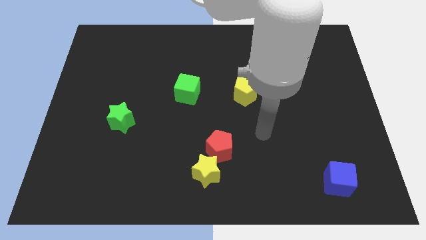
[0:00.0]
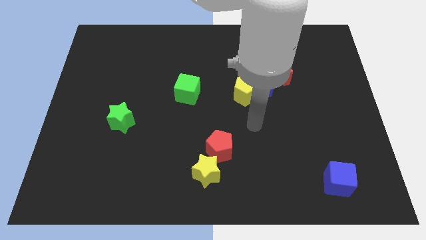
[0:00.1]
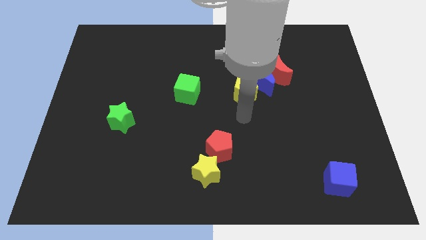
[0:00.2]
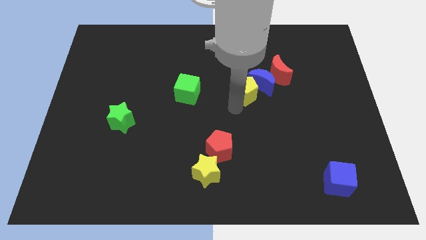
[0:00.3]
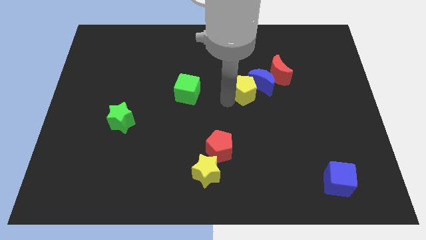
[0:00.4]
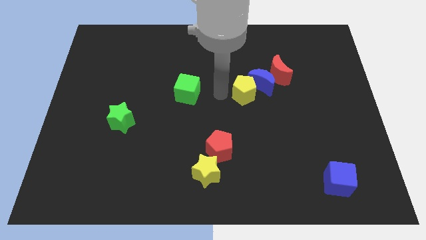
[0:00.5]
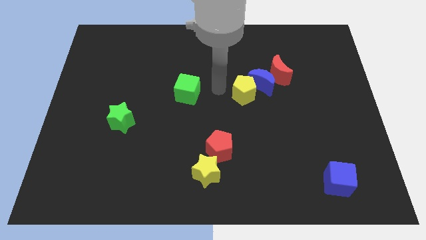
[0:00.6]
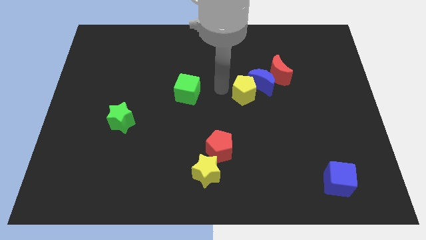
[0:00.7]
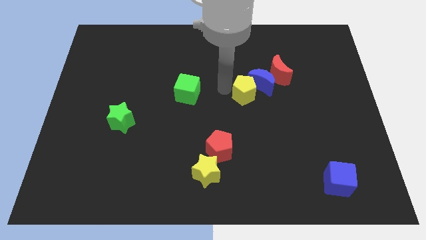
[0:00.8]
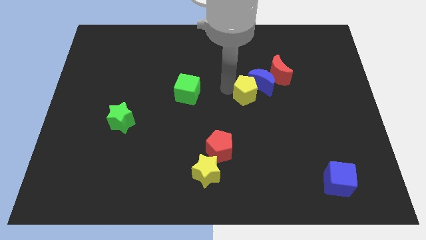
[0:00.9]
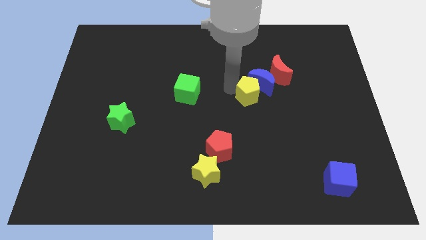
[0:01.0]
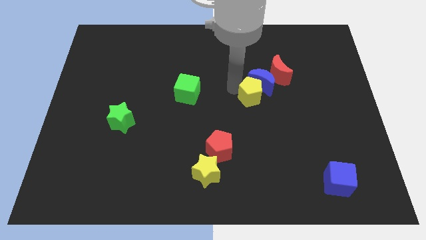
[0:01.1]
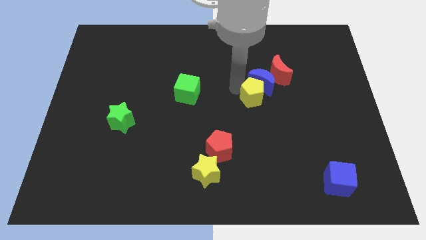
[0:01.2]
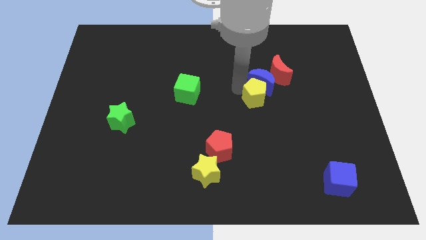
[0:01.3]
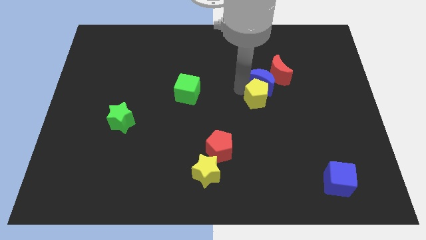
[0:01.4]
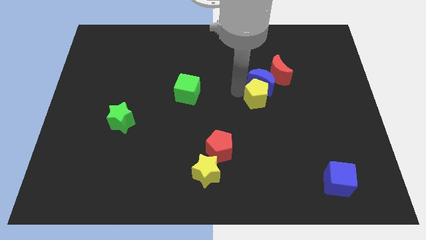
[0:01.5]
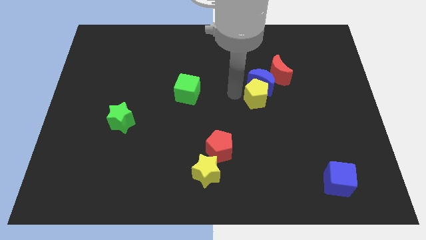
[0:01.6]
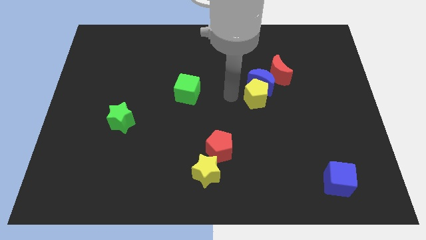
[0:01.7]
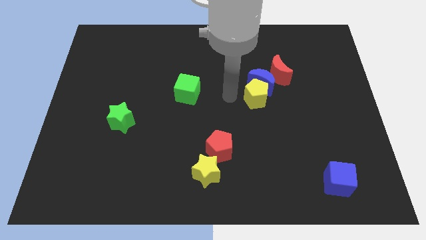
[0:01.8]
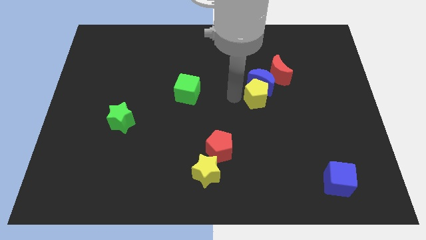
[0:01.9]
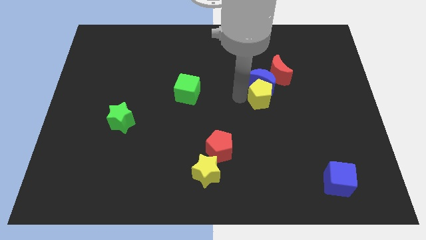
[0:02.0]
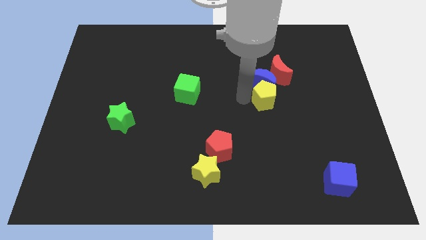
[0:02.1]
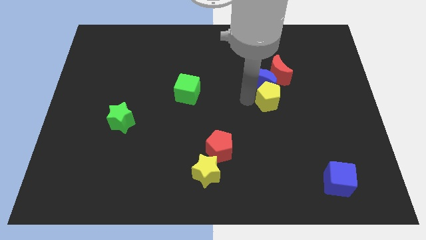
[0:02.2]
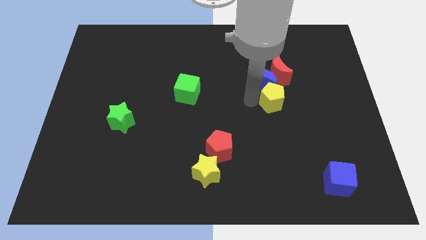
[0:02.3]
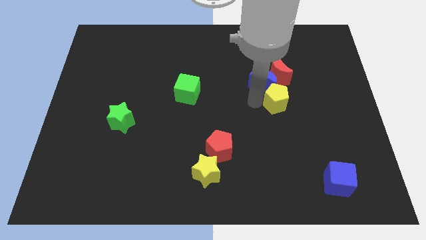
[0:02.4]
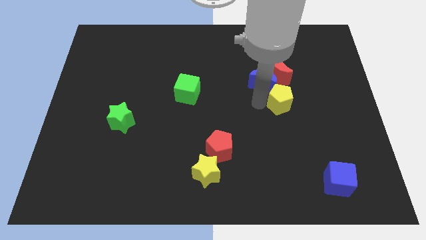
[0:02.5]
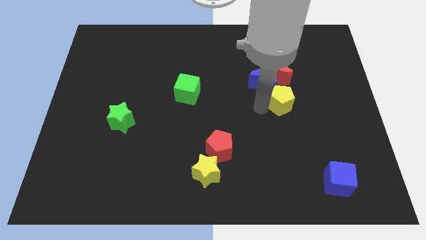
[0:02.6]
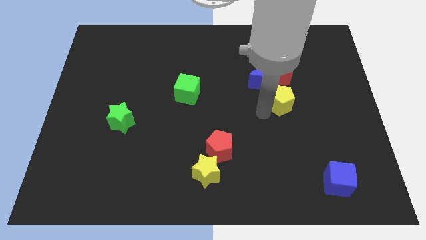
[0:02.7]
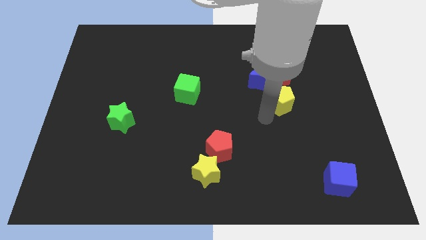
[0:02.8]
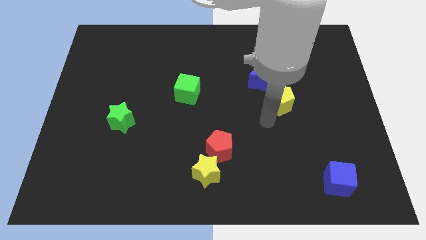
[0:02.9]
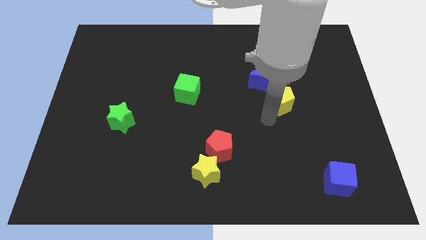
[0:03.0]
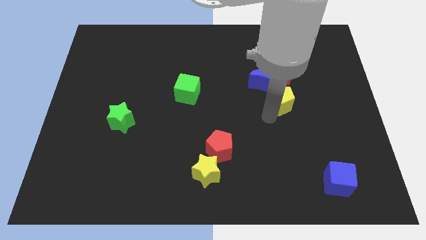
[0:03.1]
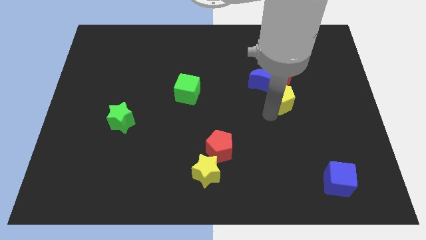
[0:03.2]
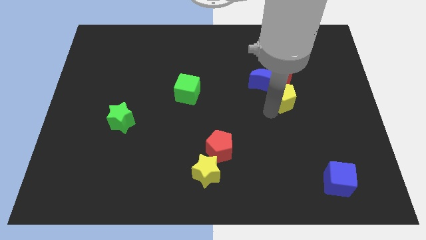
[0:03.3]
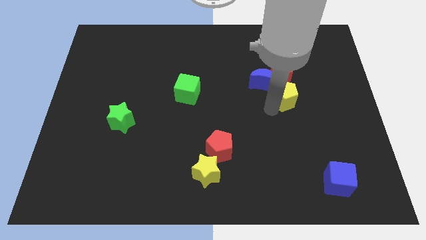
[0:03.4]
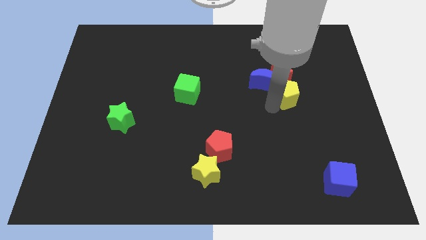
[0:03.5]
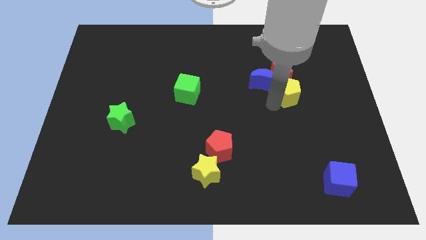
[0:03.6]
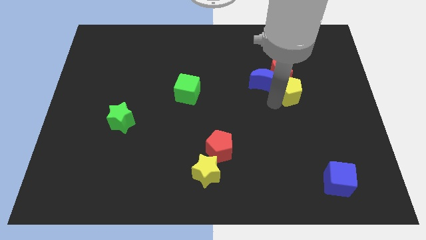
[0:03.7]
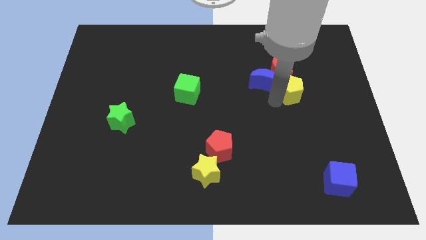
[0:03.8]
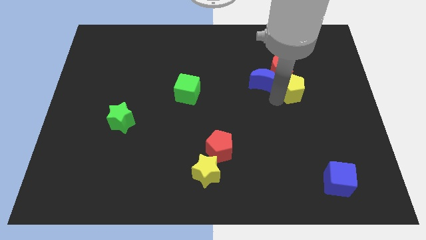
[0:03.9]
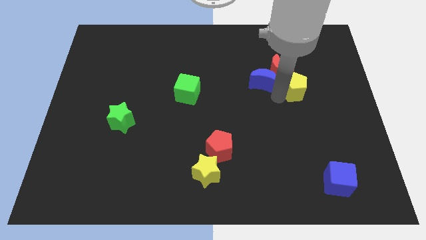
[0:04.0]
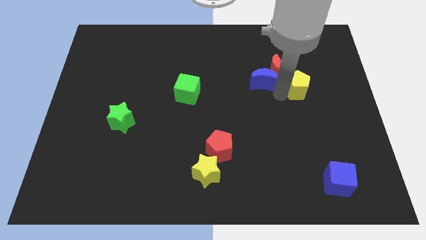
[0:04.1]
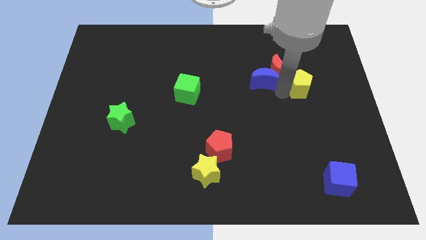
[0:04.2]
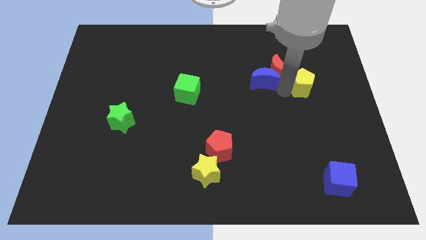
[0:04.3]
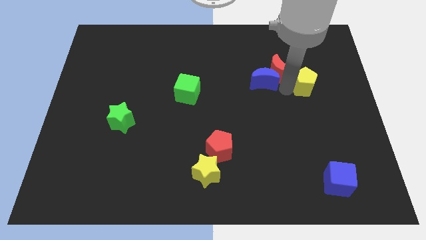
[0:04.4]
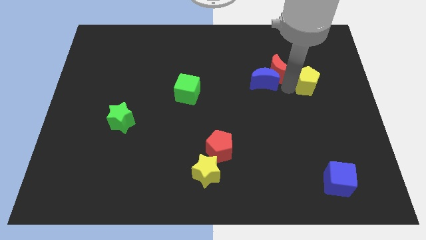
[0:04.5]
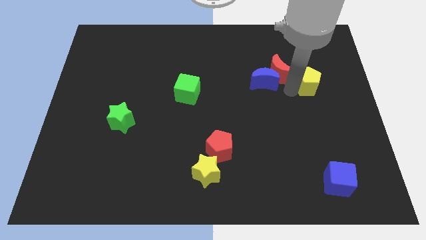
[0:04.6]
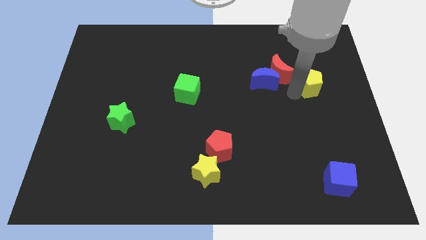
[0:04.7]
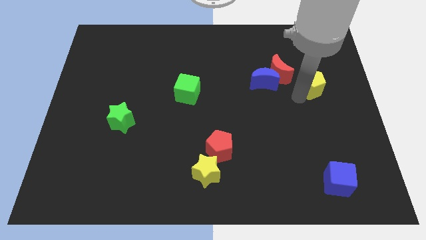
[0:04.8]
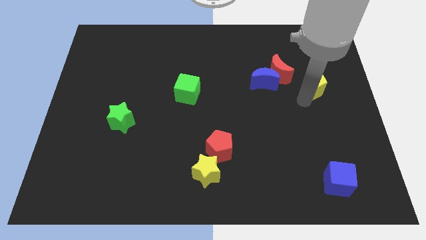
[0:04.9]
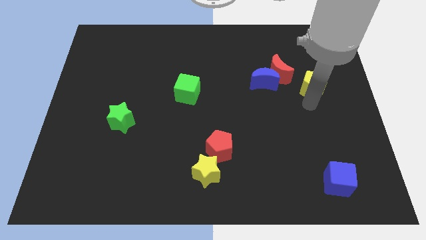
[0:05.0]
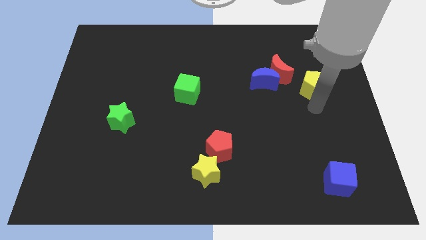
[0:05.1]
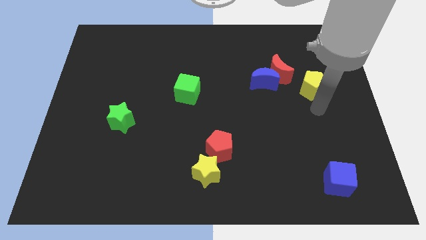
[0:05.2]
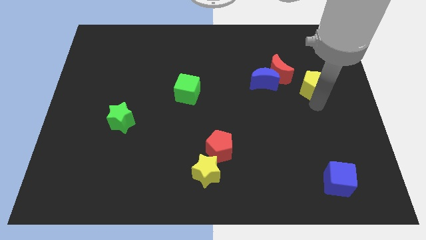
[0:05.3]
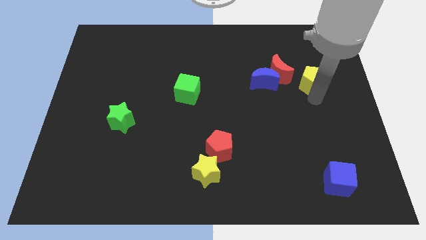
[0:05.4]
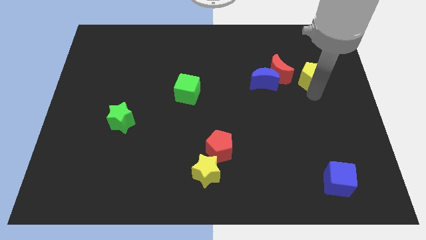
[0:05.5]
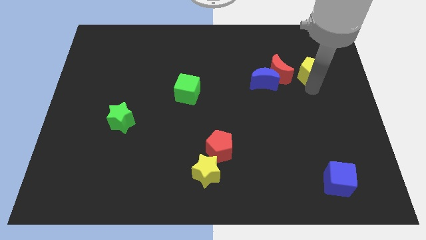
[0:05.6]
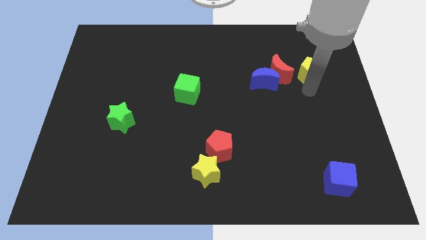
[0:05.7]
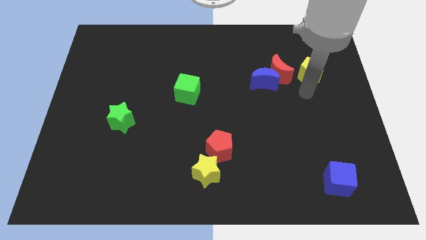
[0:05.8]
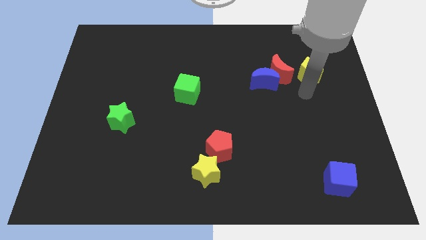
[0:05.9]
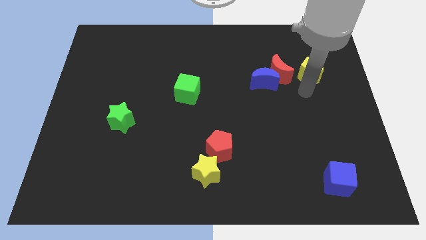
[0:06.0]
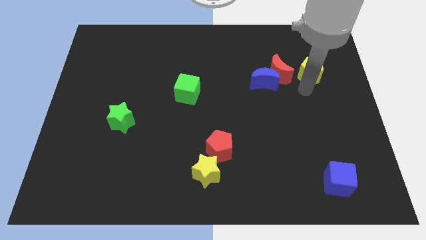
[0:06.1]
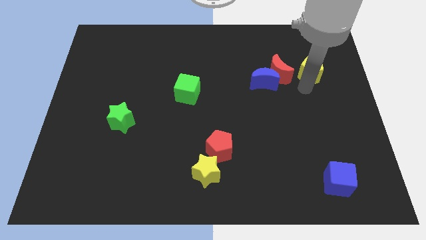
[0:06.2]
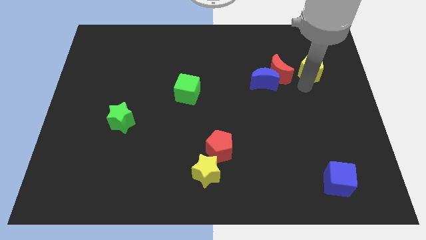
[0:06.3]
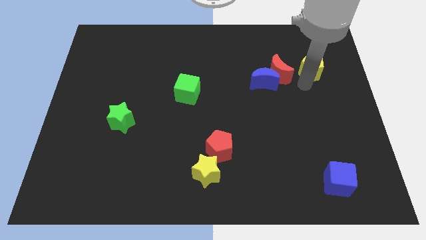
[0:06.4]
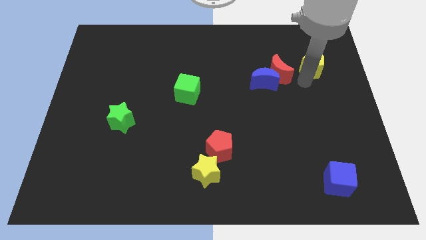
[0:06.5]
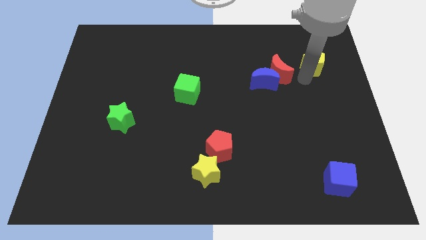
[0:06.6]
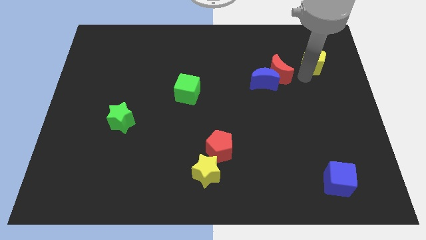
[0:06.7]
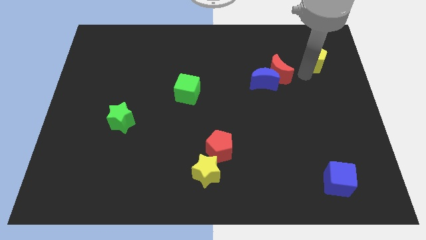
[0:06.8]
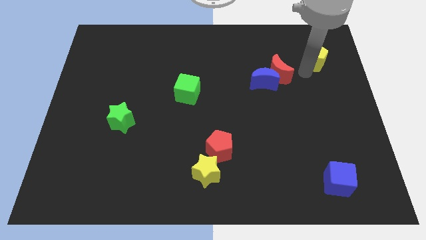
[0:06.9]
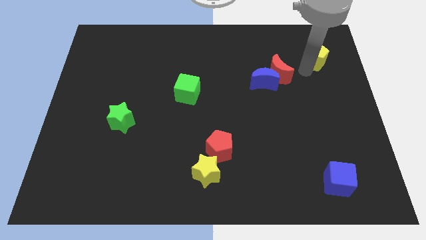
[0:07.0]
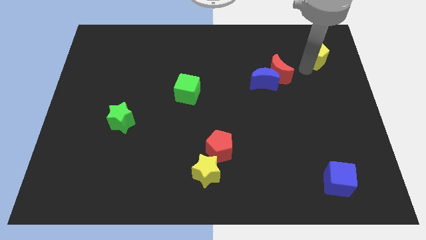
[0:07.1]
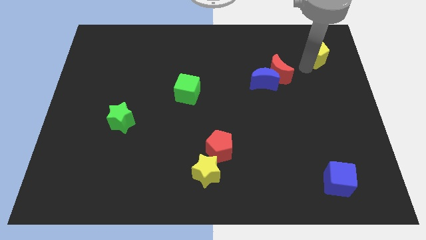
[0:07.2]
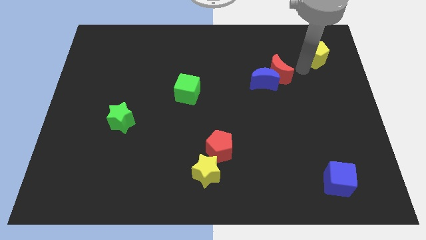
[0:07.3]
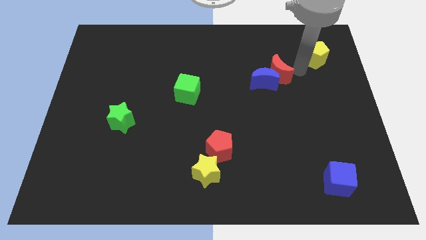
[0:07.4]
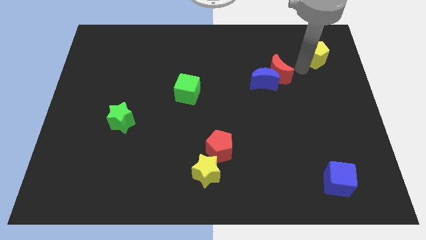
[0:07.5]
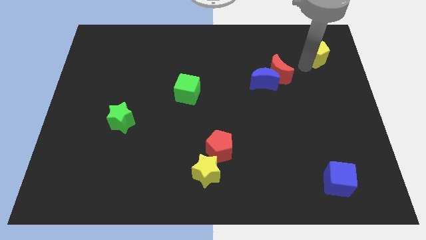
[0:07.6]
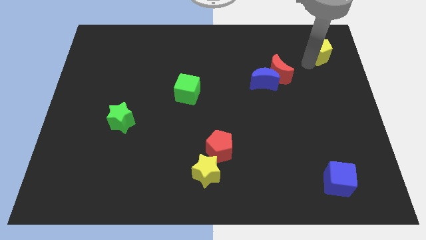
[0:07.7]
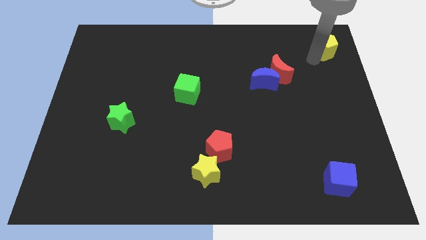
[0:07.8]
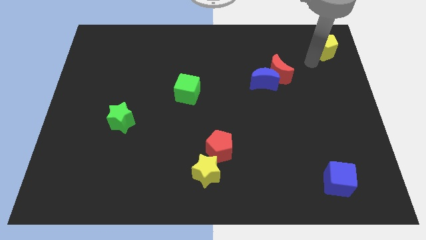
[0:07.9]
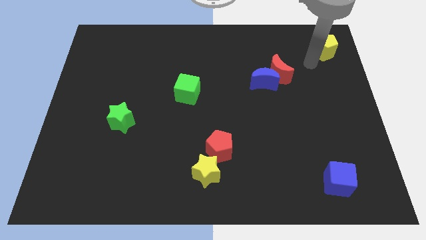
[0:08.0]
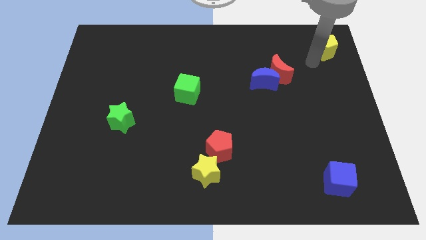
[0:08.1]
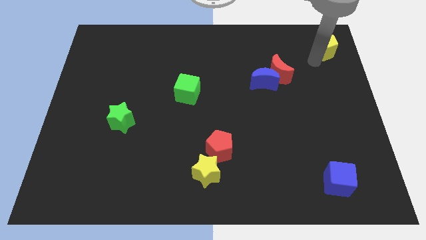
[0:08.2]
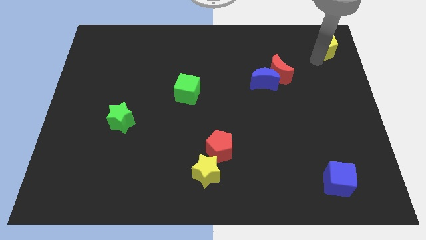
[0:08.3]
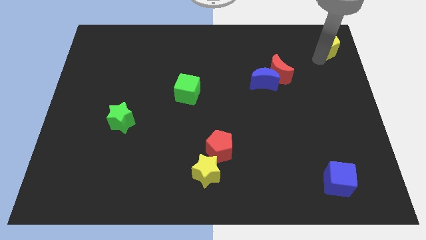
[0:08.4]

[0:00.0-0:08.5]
slide the yellow pentagon to the top right of the board
